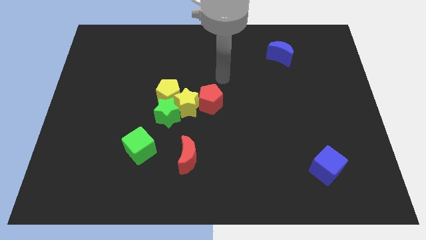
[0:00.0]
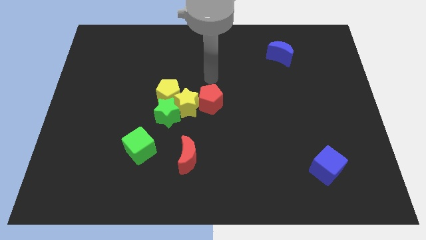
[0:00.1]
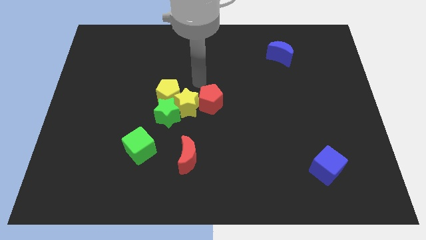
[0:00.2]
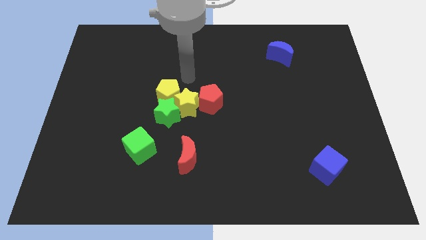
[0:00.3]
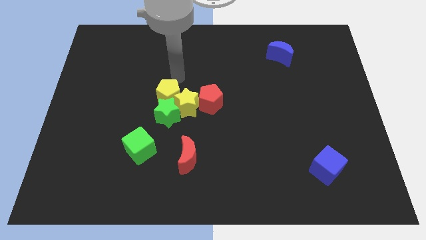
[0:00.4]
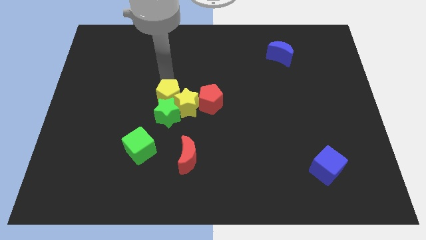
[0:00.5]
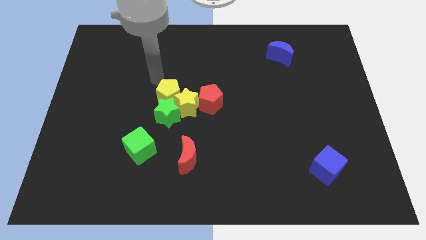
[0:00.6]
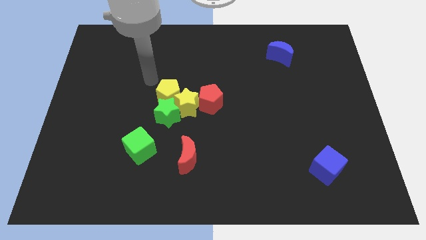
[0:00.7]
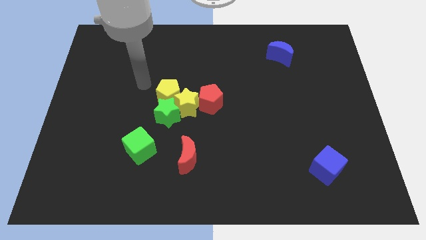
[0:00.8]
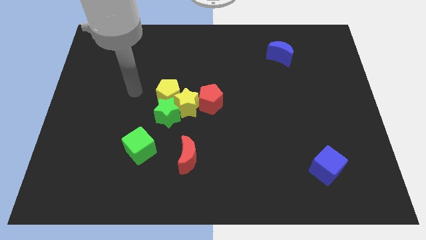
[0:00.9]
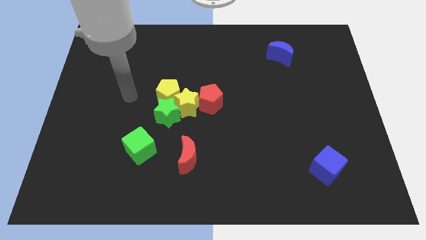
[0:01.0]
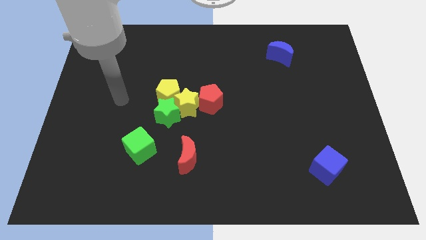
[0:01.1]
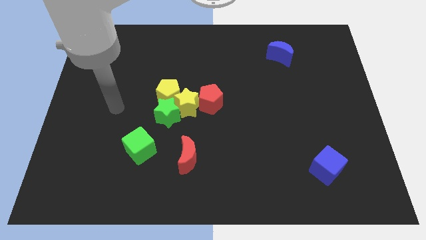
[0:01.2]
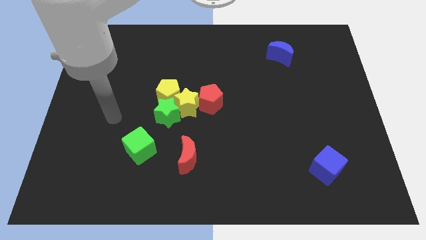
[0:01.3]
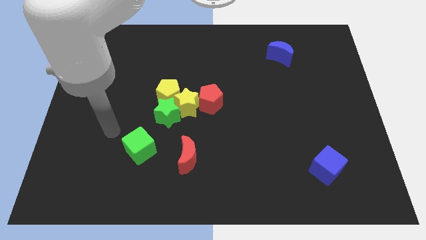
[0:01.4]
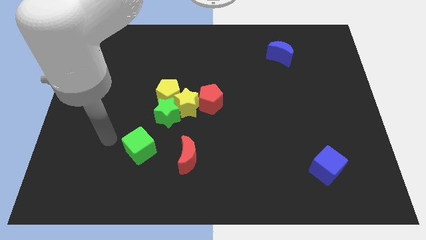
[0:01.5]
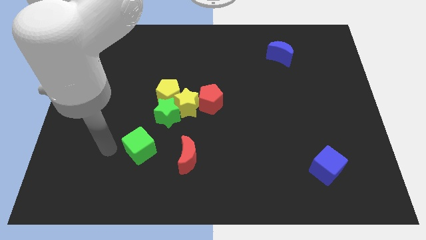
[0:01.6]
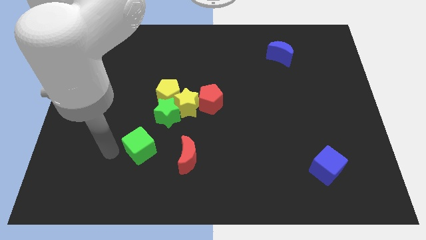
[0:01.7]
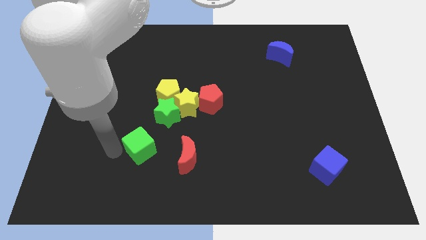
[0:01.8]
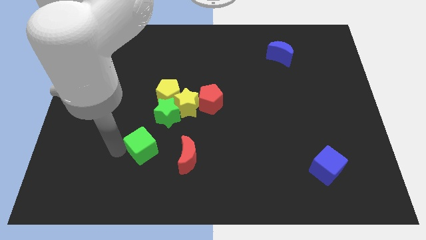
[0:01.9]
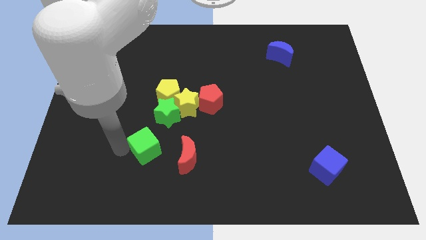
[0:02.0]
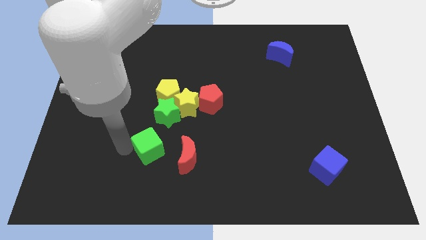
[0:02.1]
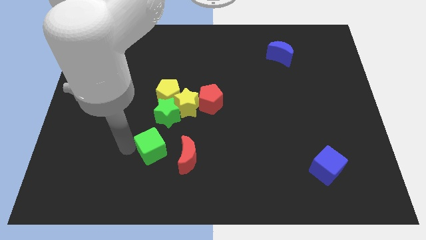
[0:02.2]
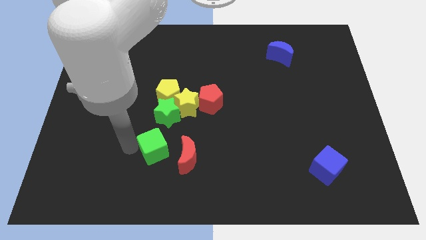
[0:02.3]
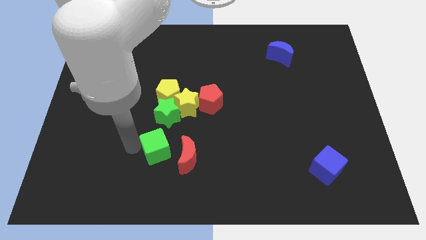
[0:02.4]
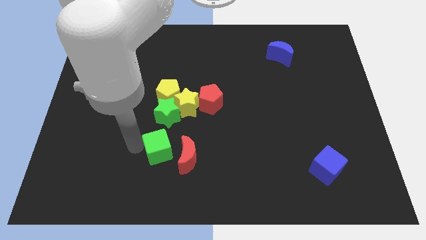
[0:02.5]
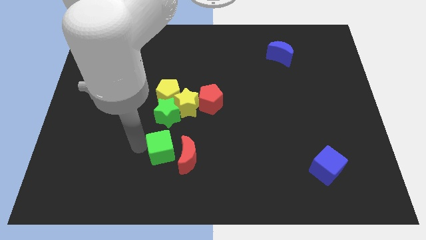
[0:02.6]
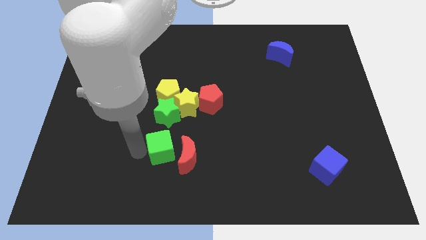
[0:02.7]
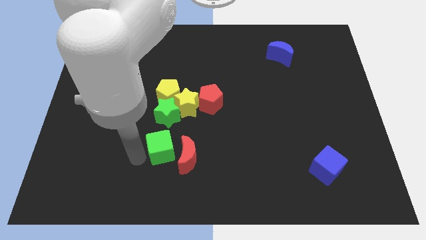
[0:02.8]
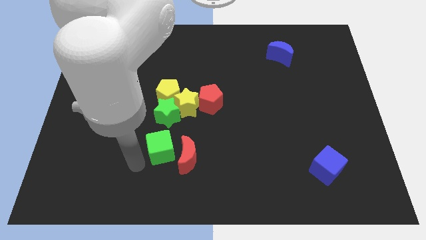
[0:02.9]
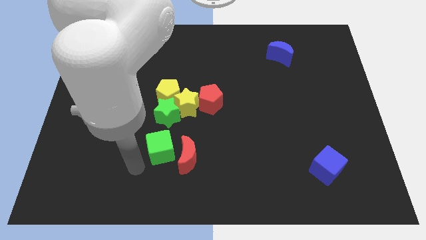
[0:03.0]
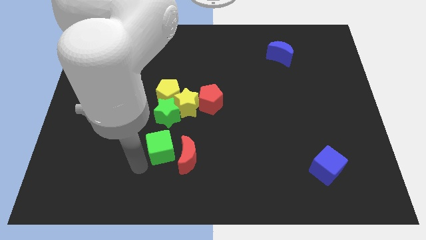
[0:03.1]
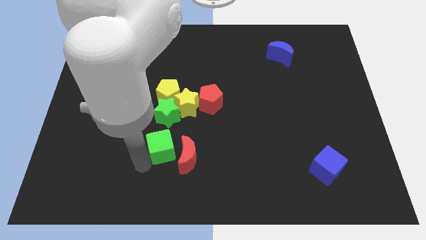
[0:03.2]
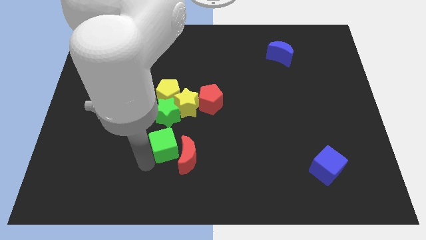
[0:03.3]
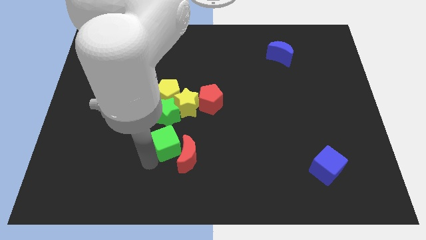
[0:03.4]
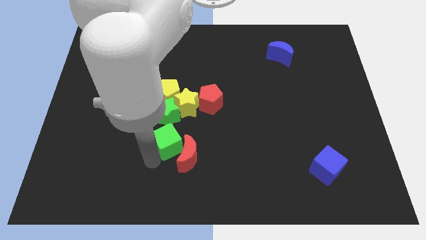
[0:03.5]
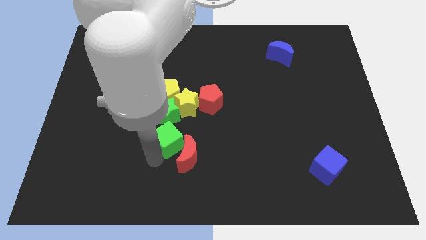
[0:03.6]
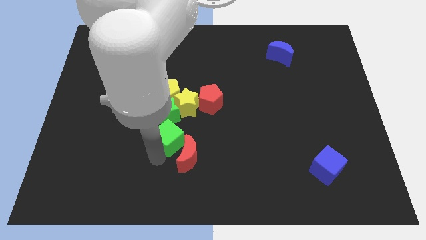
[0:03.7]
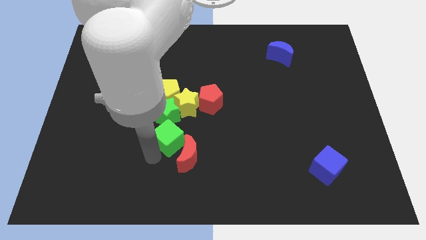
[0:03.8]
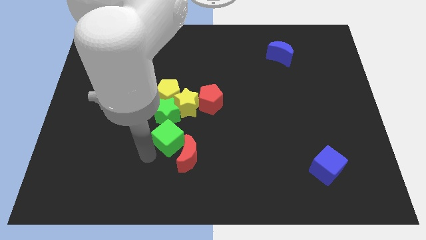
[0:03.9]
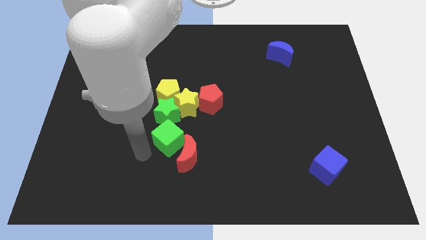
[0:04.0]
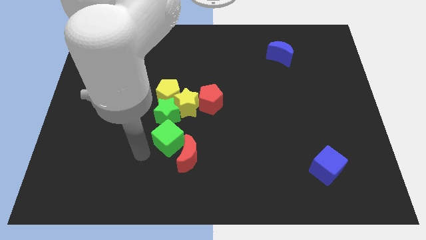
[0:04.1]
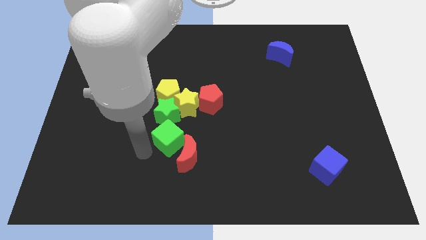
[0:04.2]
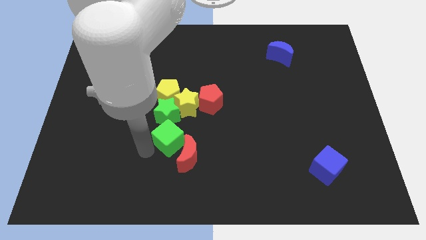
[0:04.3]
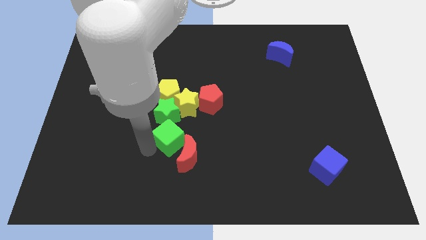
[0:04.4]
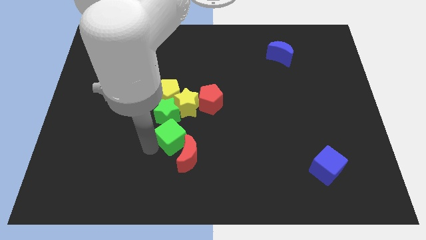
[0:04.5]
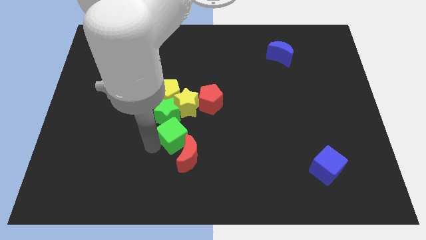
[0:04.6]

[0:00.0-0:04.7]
move the green cube right slightly

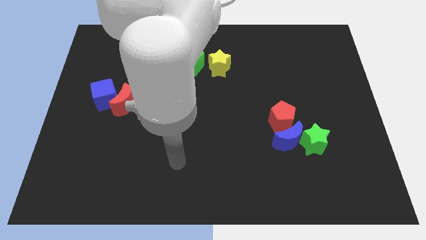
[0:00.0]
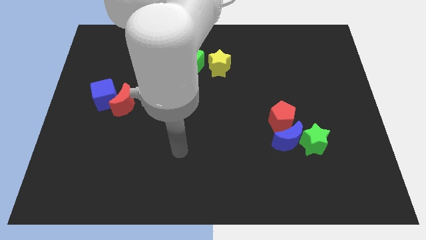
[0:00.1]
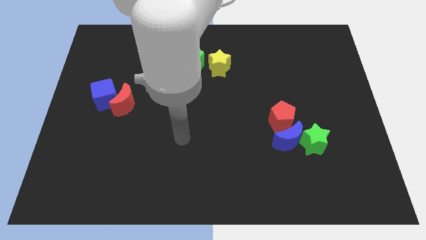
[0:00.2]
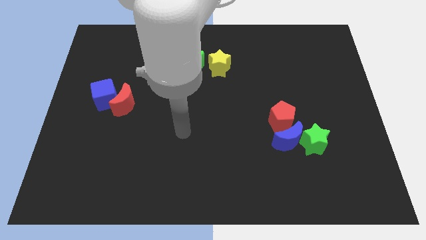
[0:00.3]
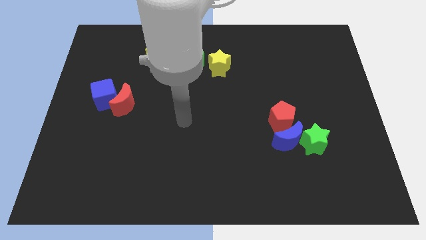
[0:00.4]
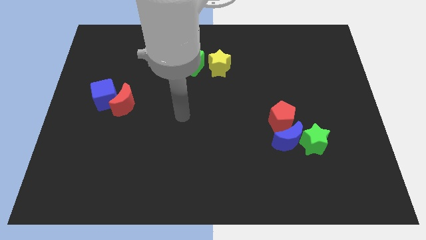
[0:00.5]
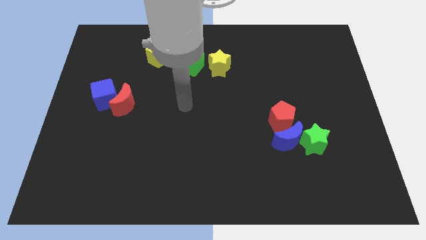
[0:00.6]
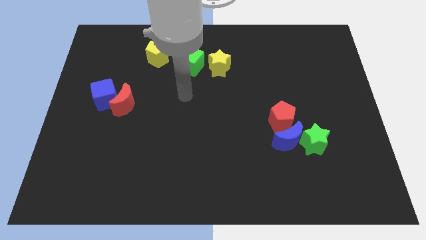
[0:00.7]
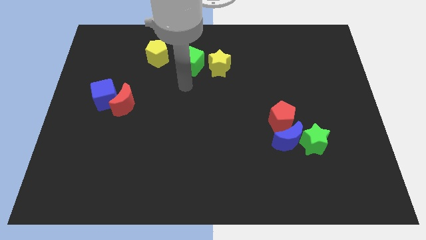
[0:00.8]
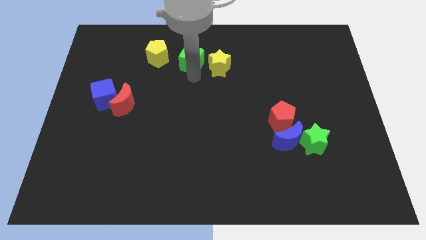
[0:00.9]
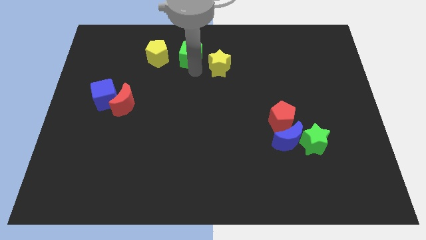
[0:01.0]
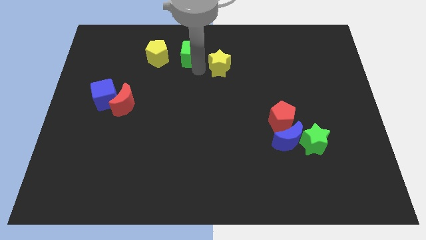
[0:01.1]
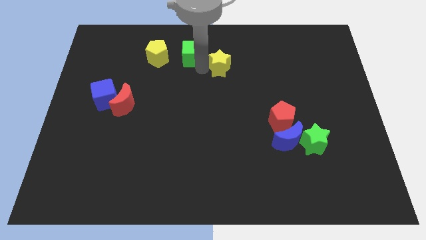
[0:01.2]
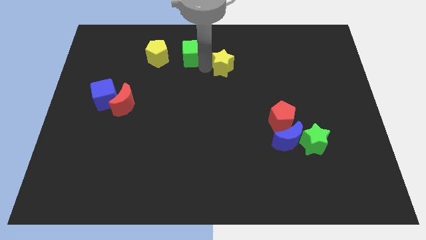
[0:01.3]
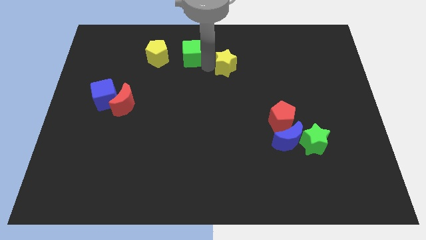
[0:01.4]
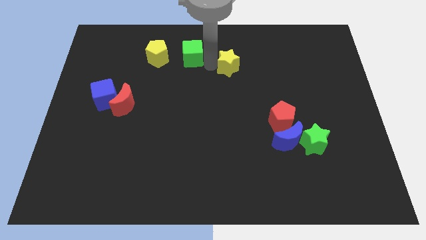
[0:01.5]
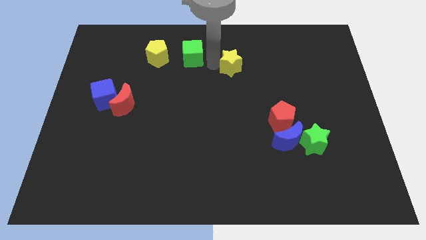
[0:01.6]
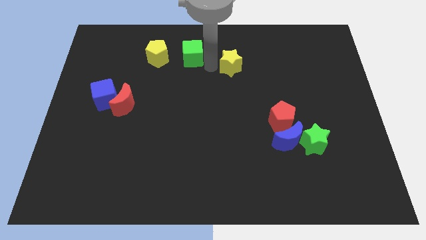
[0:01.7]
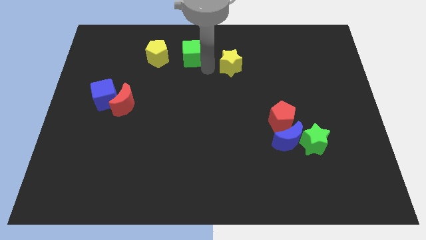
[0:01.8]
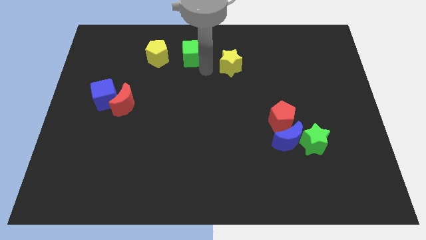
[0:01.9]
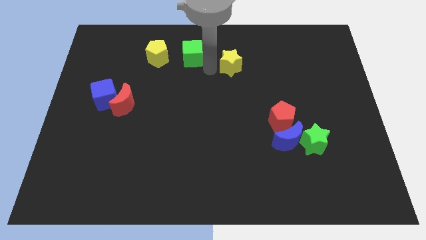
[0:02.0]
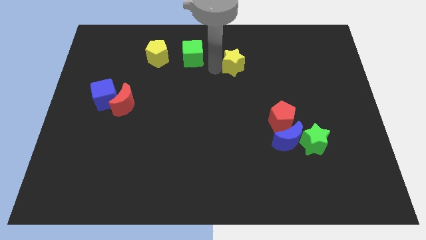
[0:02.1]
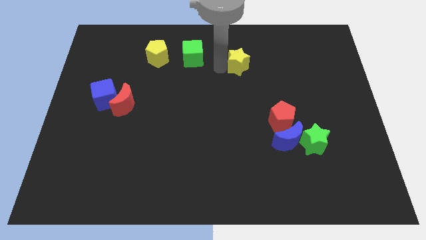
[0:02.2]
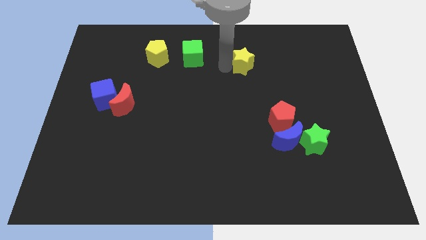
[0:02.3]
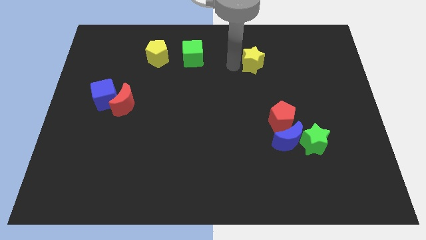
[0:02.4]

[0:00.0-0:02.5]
push the yellow star slightly to the right

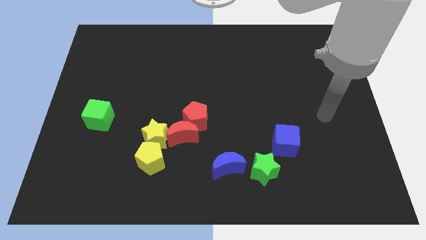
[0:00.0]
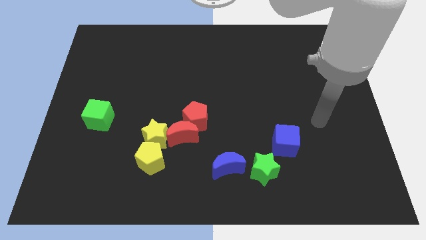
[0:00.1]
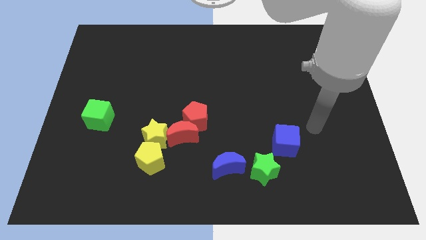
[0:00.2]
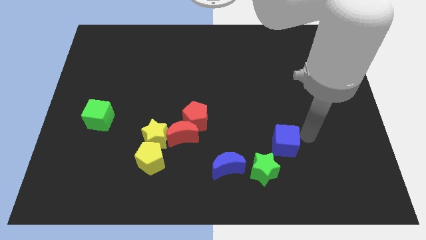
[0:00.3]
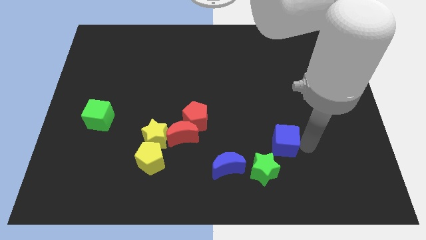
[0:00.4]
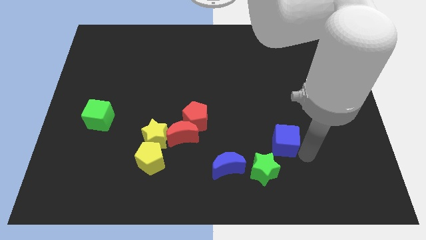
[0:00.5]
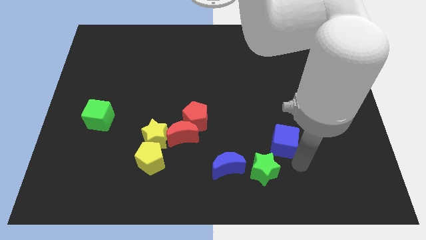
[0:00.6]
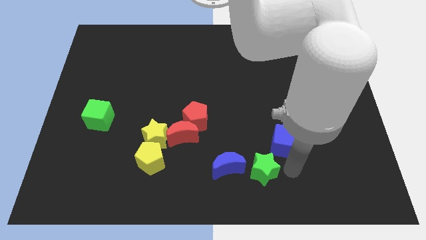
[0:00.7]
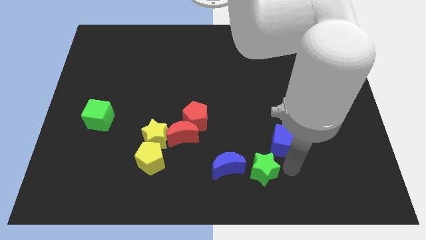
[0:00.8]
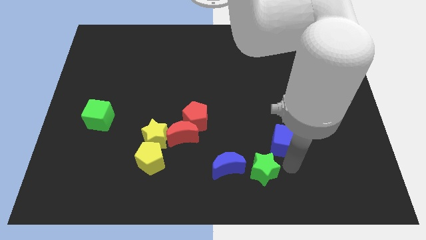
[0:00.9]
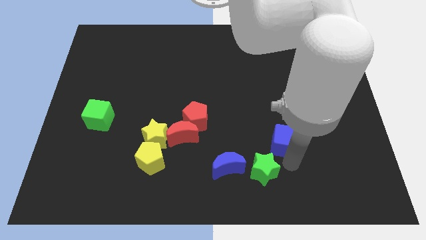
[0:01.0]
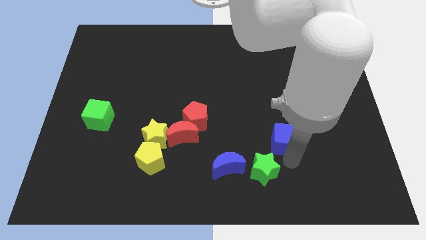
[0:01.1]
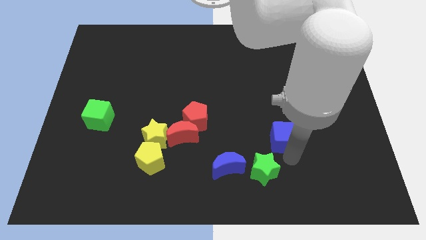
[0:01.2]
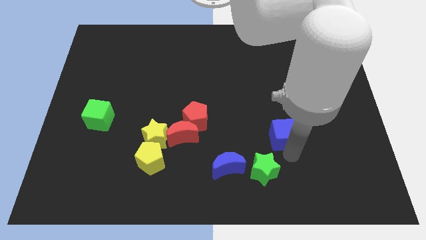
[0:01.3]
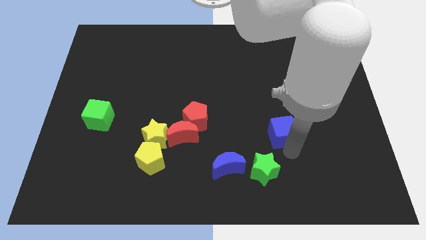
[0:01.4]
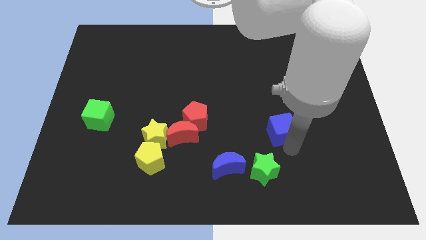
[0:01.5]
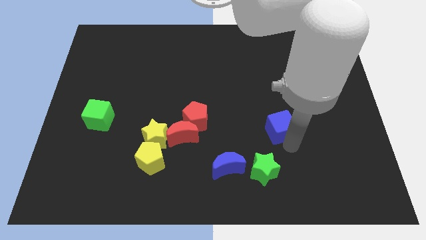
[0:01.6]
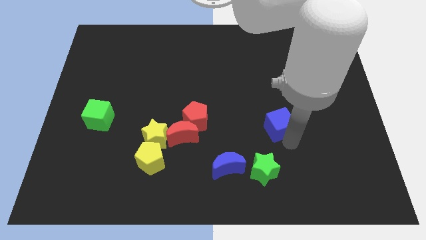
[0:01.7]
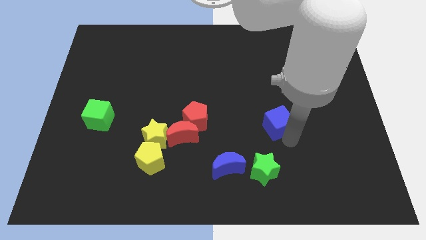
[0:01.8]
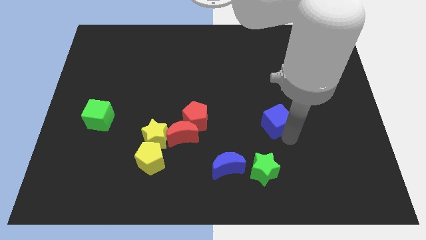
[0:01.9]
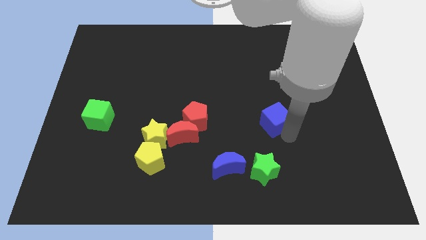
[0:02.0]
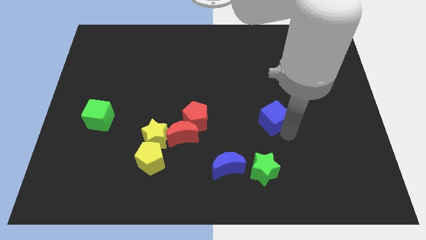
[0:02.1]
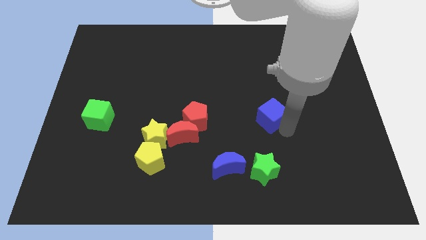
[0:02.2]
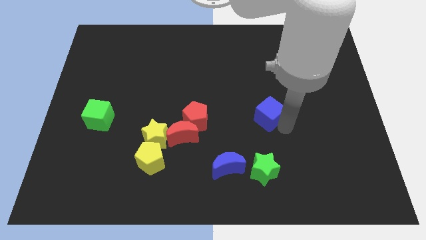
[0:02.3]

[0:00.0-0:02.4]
move the blue cube a bit up and then to the left
